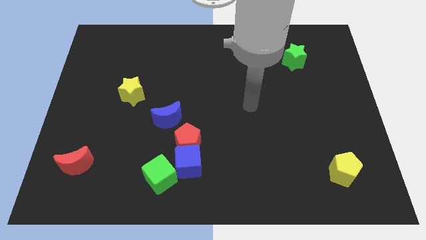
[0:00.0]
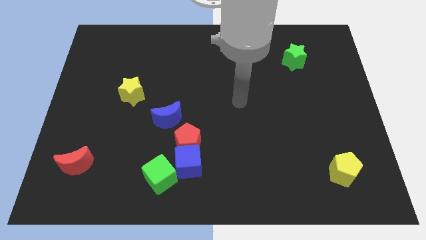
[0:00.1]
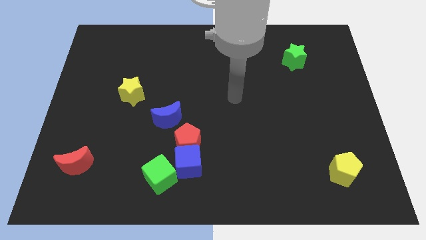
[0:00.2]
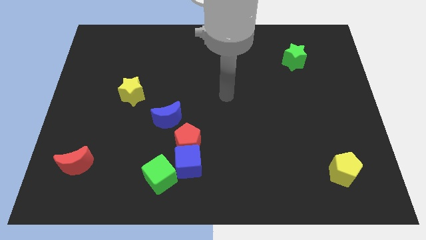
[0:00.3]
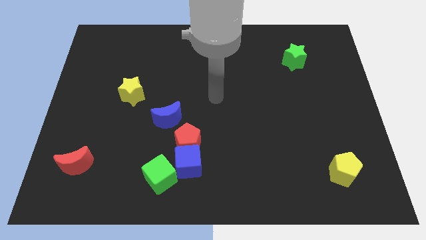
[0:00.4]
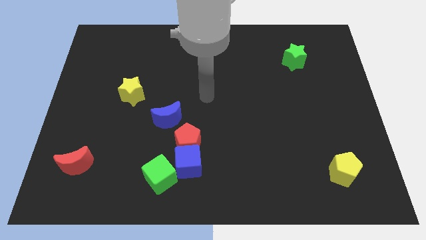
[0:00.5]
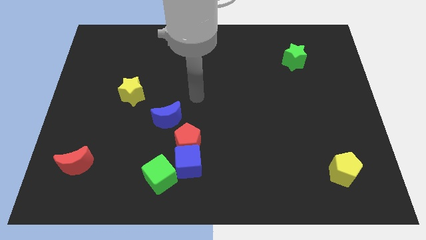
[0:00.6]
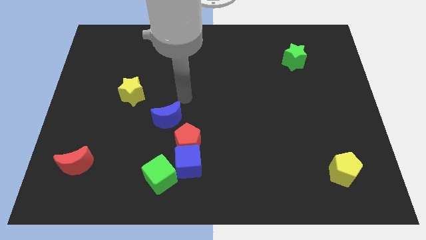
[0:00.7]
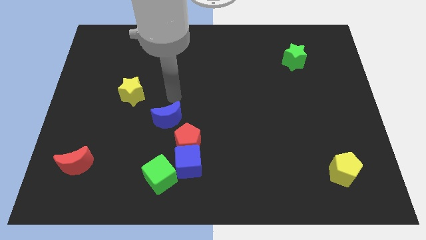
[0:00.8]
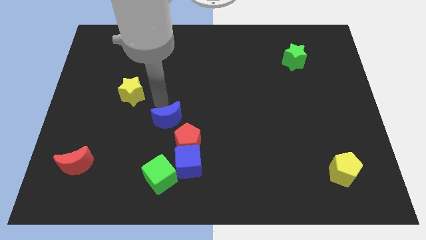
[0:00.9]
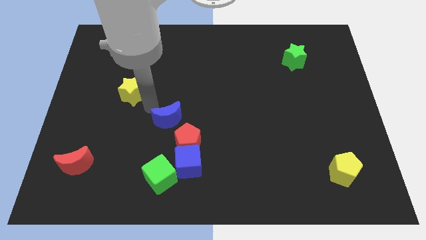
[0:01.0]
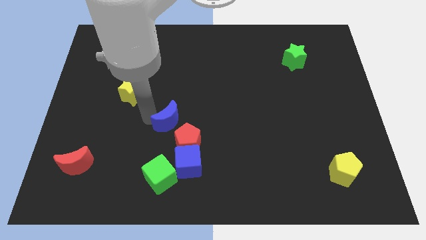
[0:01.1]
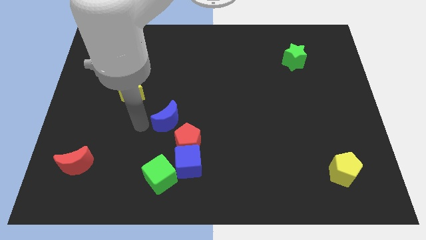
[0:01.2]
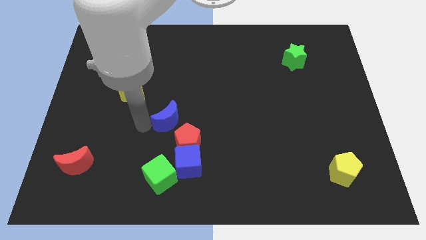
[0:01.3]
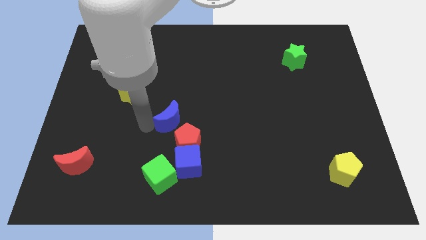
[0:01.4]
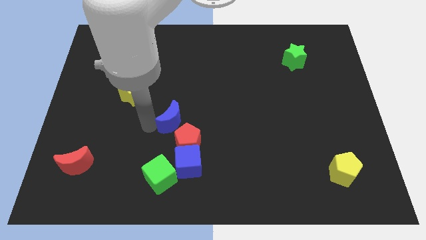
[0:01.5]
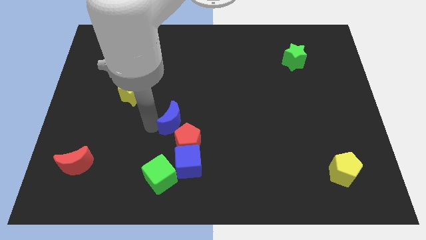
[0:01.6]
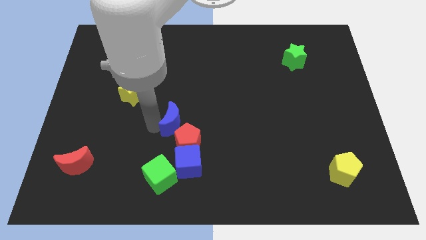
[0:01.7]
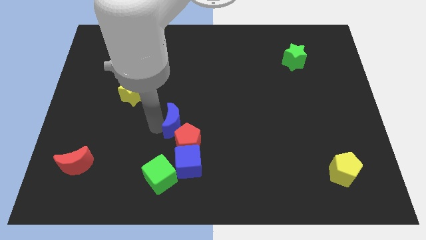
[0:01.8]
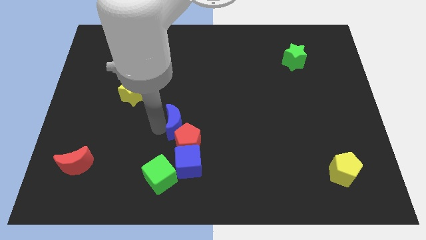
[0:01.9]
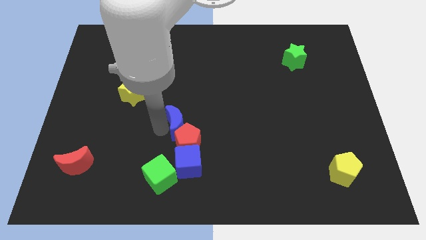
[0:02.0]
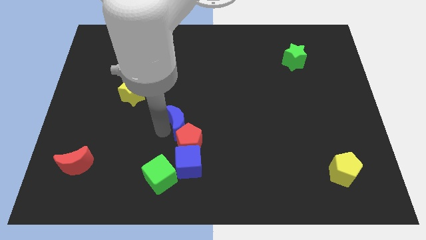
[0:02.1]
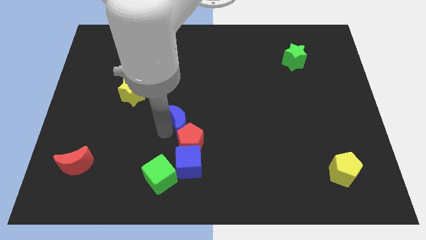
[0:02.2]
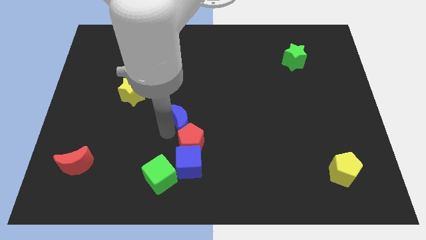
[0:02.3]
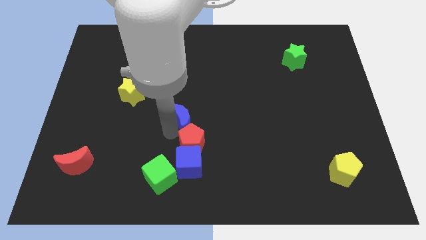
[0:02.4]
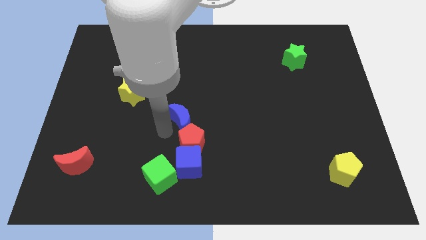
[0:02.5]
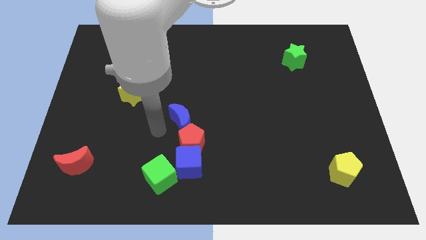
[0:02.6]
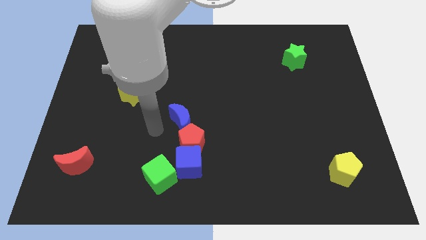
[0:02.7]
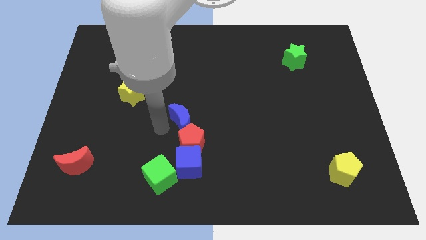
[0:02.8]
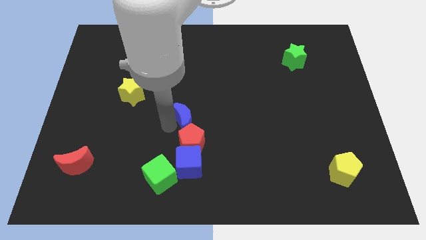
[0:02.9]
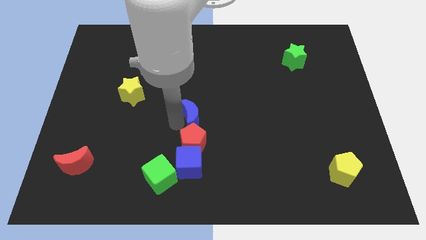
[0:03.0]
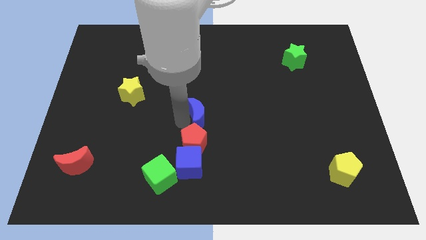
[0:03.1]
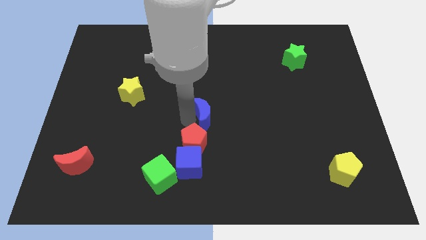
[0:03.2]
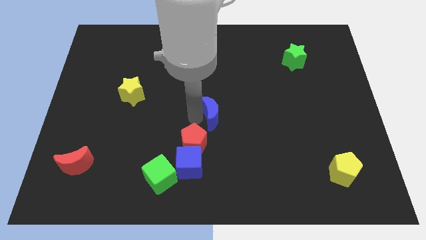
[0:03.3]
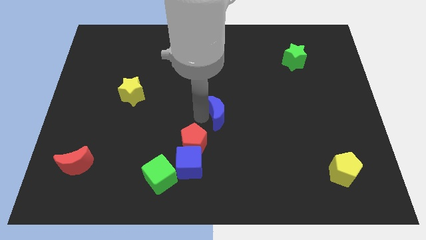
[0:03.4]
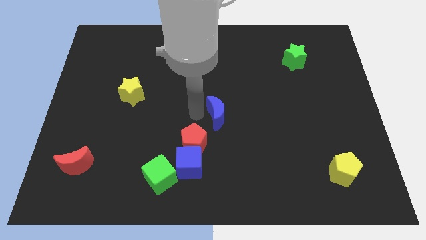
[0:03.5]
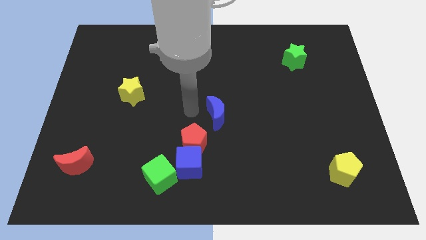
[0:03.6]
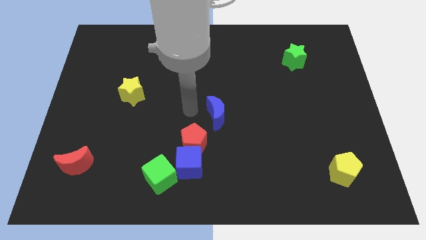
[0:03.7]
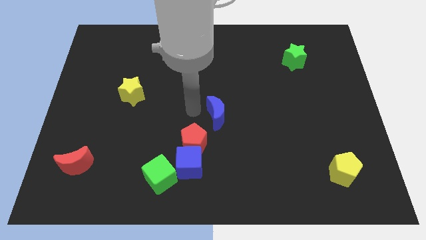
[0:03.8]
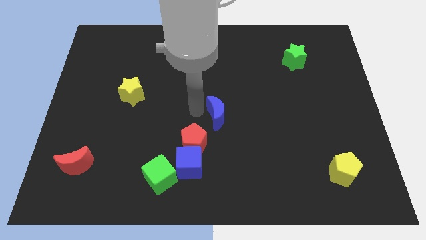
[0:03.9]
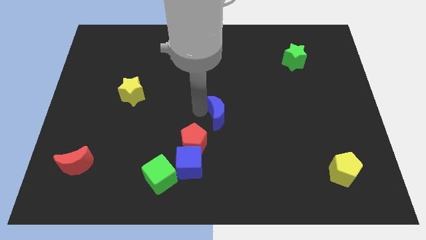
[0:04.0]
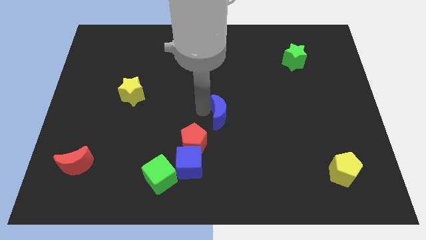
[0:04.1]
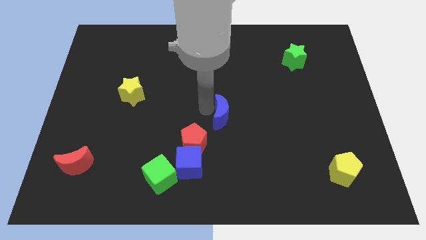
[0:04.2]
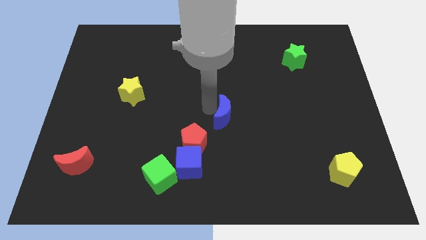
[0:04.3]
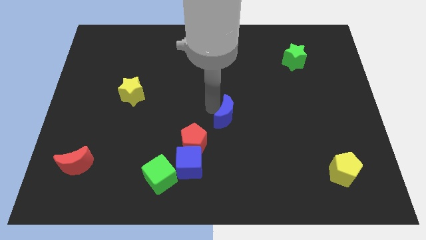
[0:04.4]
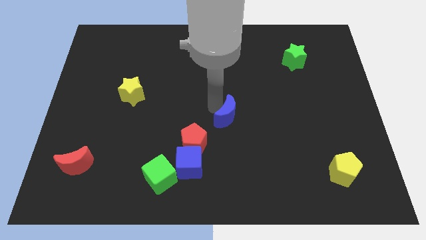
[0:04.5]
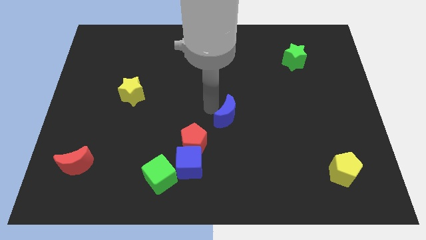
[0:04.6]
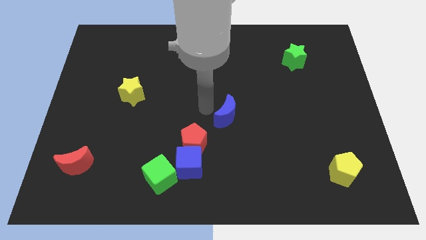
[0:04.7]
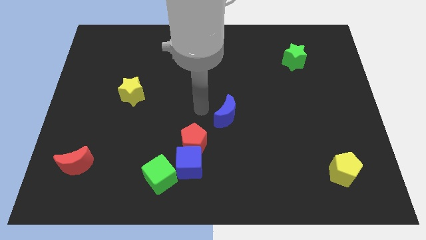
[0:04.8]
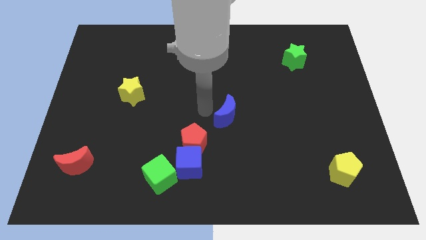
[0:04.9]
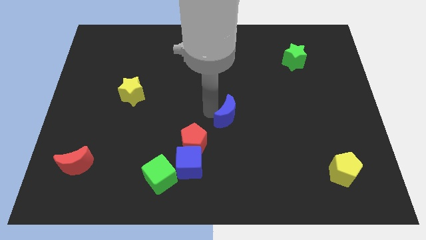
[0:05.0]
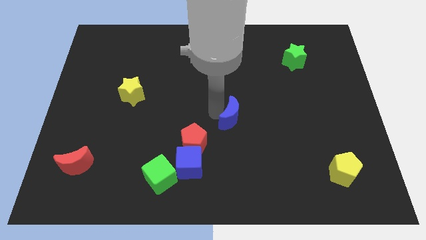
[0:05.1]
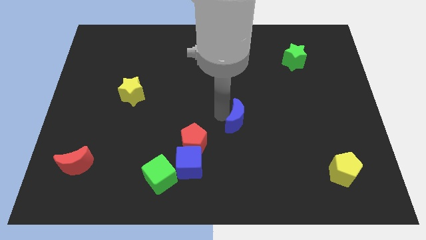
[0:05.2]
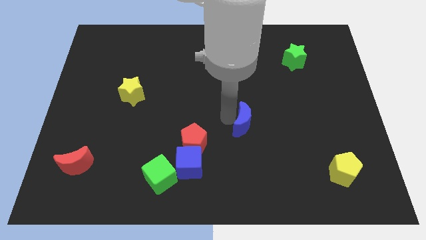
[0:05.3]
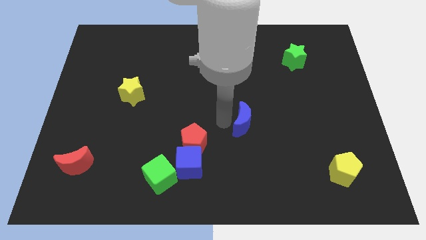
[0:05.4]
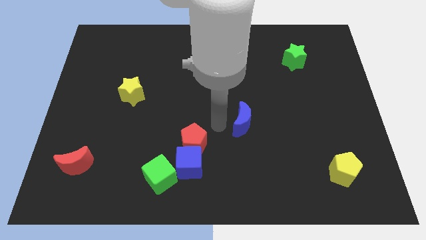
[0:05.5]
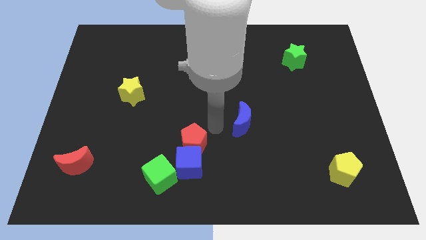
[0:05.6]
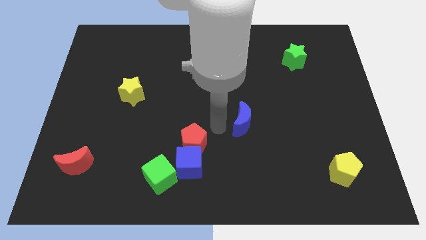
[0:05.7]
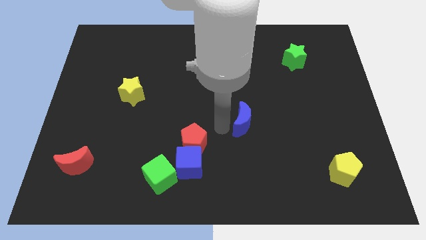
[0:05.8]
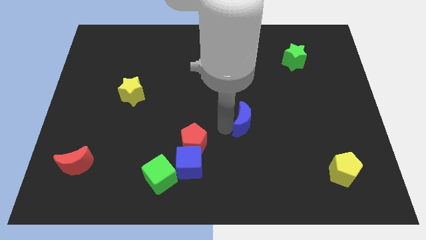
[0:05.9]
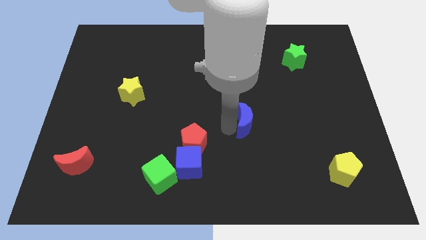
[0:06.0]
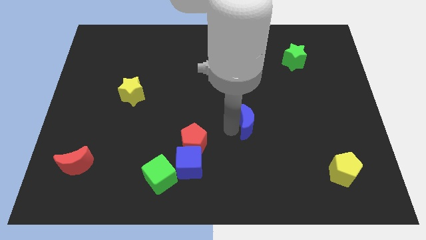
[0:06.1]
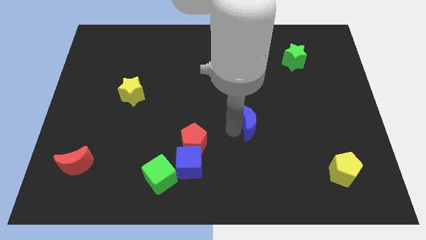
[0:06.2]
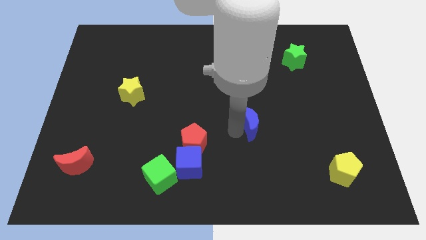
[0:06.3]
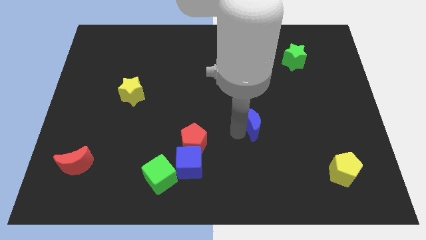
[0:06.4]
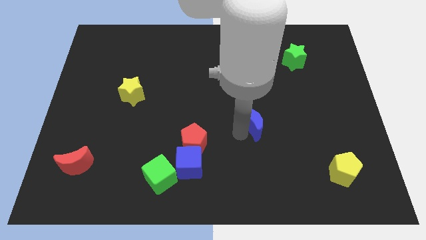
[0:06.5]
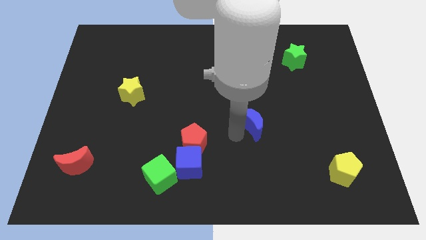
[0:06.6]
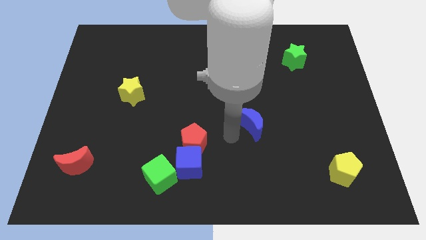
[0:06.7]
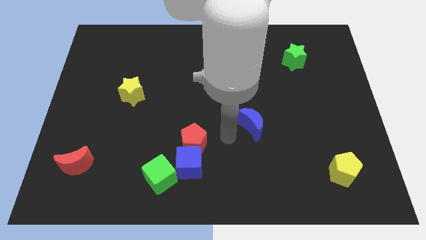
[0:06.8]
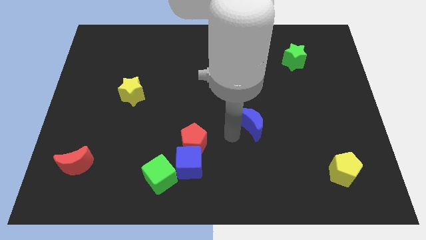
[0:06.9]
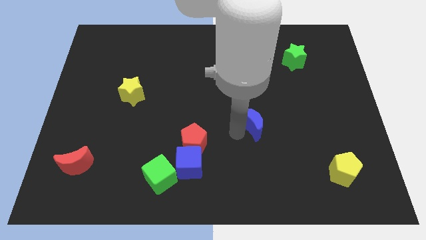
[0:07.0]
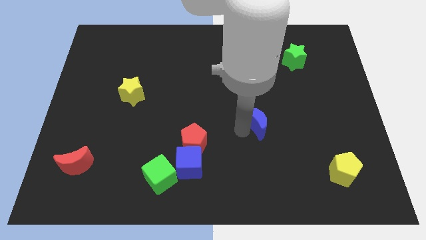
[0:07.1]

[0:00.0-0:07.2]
slide the blue moon right

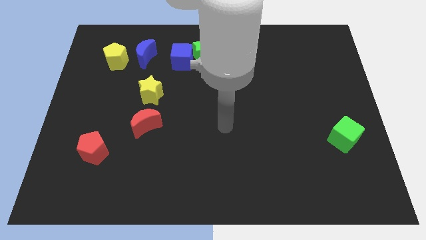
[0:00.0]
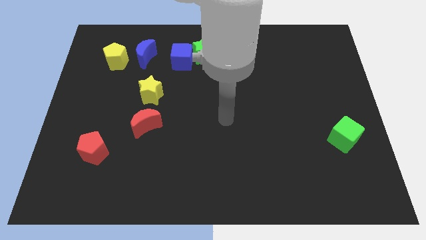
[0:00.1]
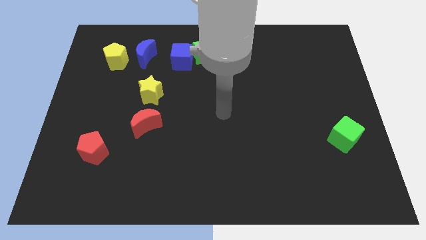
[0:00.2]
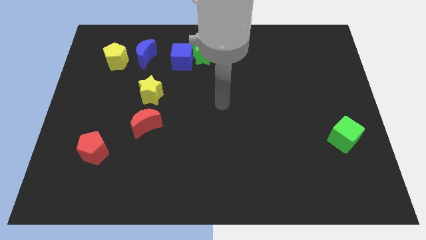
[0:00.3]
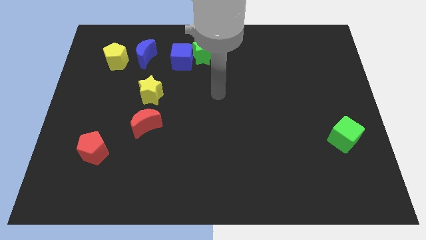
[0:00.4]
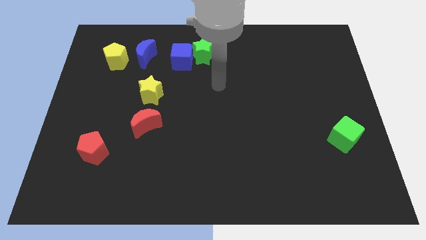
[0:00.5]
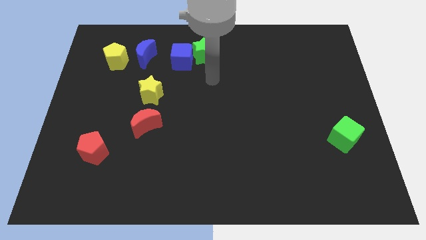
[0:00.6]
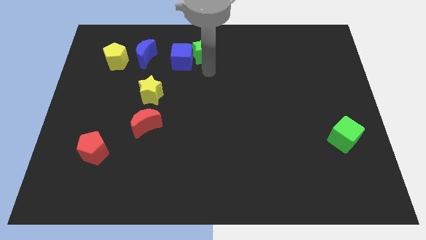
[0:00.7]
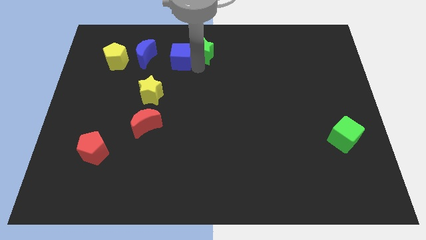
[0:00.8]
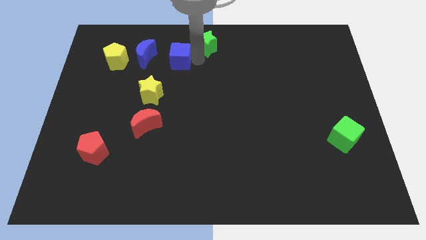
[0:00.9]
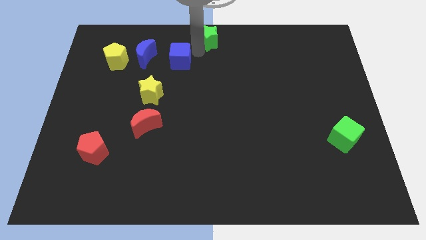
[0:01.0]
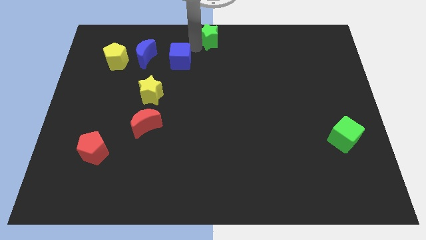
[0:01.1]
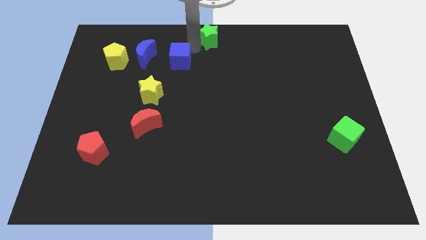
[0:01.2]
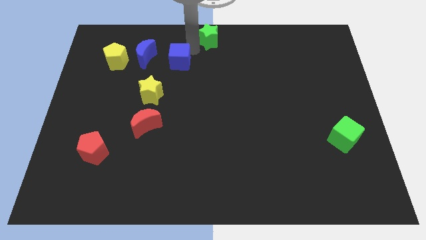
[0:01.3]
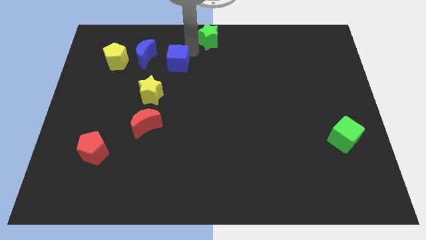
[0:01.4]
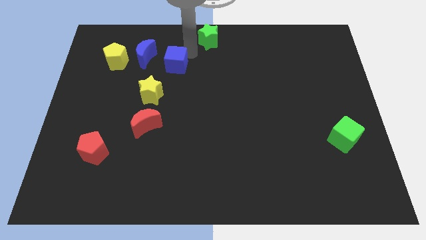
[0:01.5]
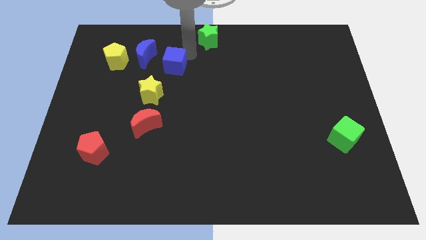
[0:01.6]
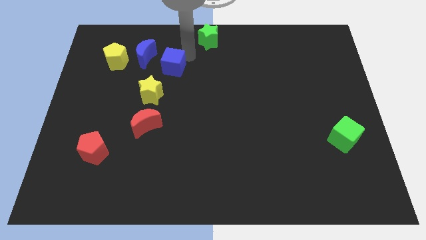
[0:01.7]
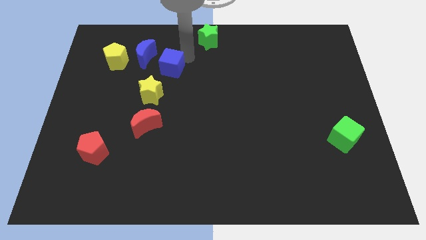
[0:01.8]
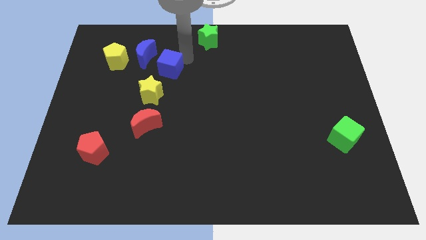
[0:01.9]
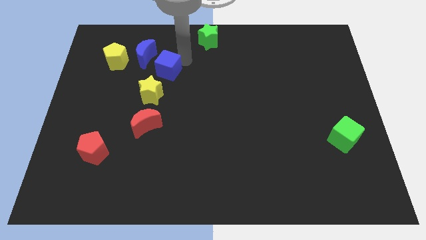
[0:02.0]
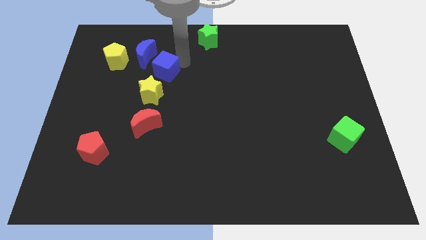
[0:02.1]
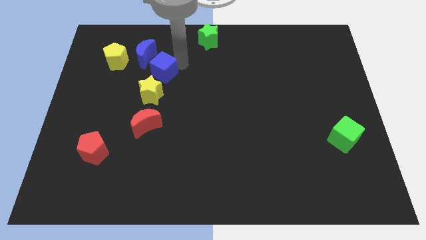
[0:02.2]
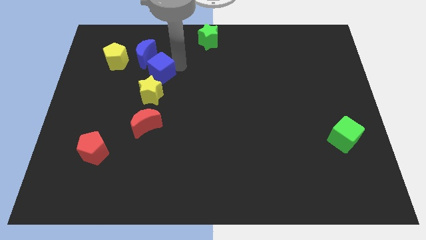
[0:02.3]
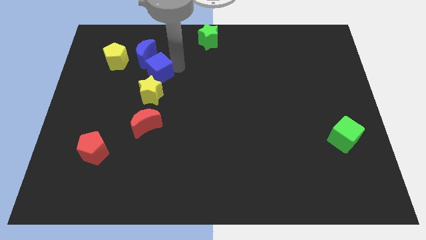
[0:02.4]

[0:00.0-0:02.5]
slide the blue cube down and then to the left a little
